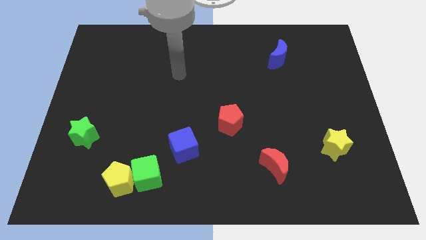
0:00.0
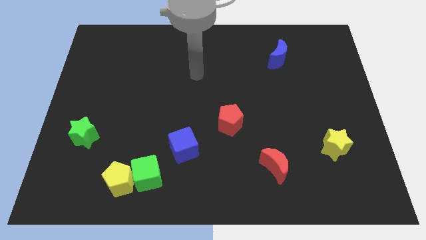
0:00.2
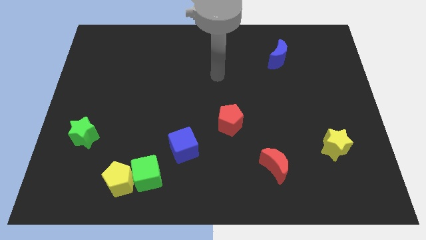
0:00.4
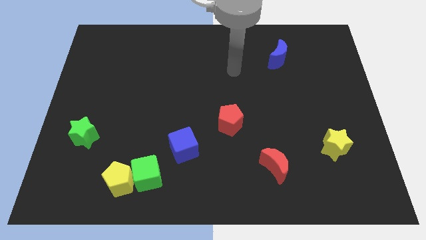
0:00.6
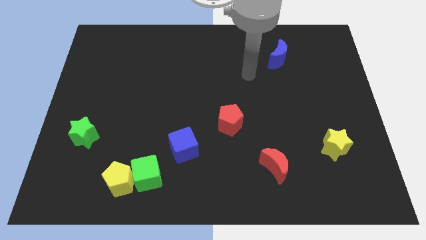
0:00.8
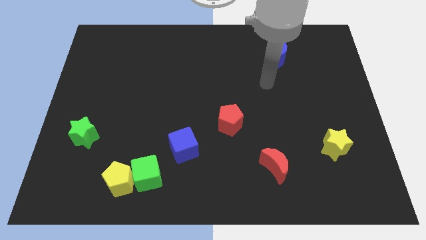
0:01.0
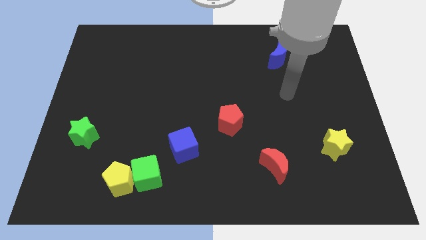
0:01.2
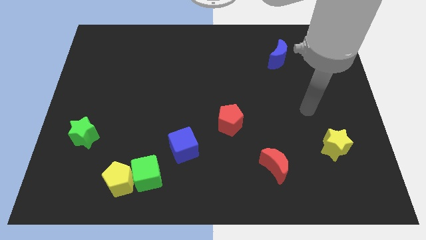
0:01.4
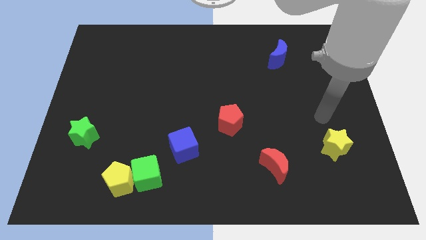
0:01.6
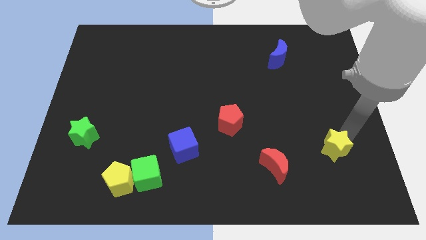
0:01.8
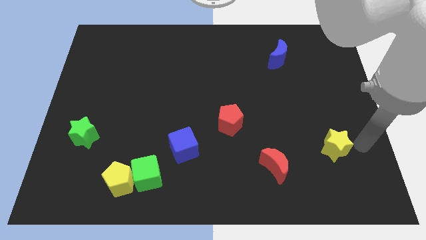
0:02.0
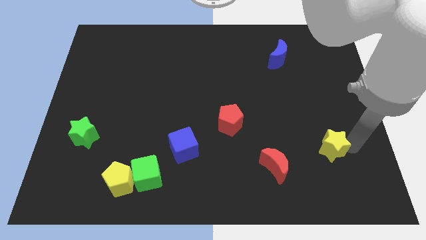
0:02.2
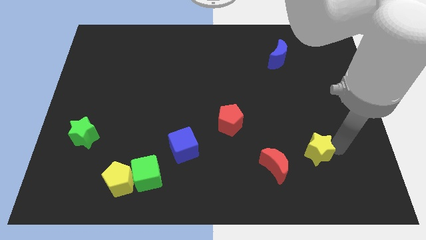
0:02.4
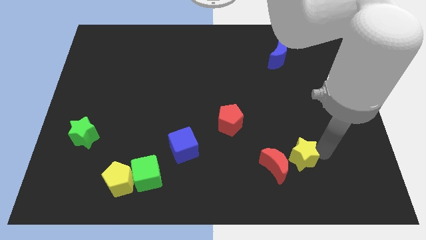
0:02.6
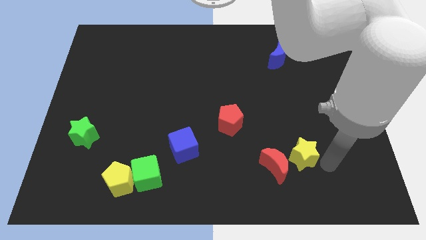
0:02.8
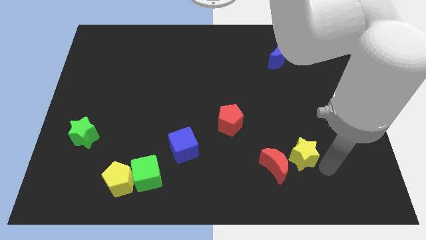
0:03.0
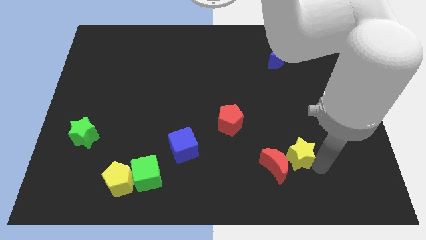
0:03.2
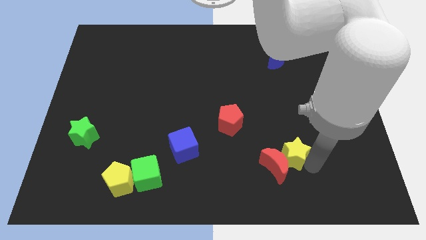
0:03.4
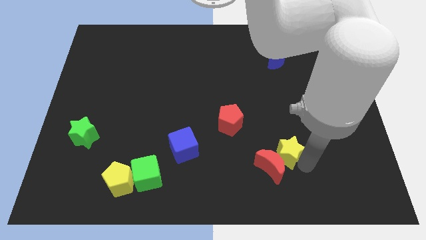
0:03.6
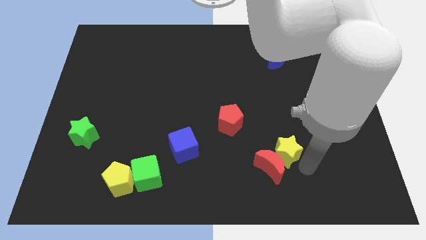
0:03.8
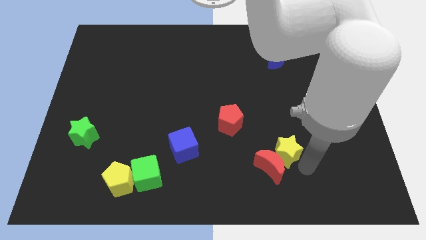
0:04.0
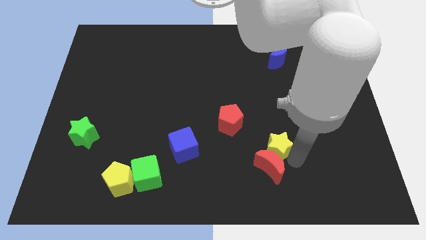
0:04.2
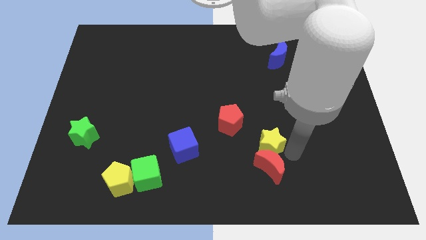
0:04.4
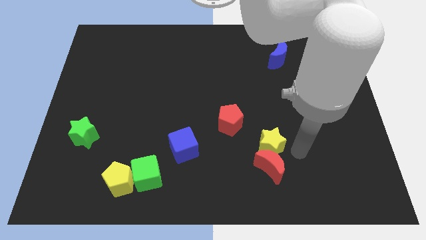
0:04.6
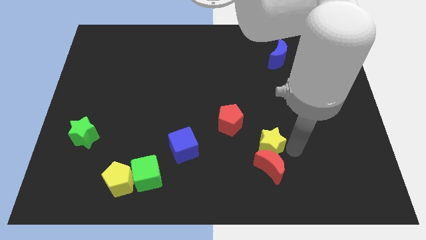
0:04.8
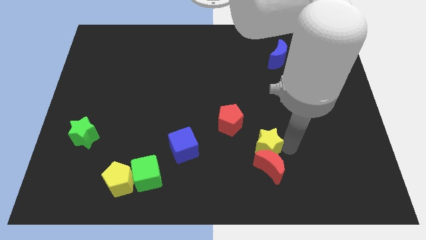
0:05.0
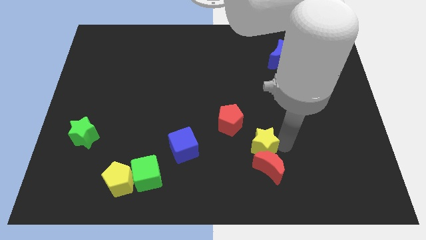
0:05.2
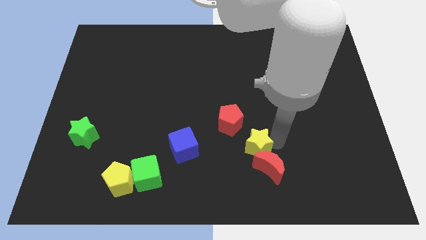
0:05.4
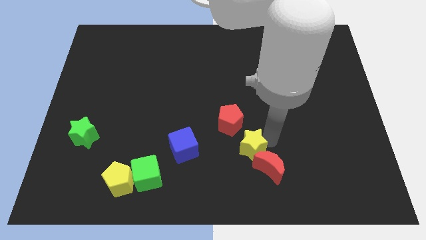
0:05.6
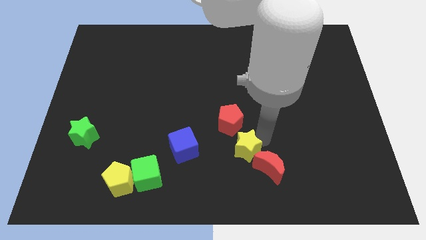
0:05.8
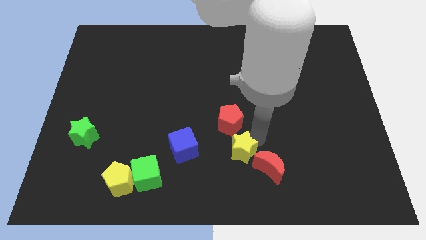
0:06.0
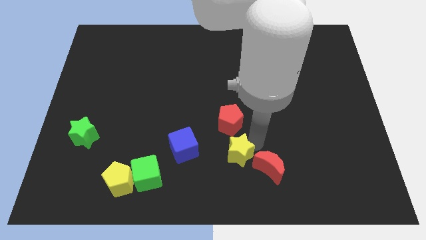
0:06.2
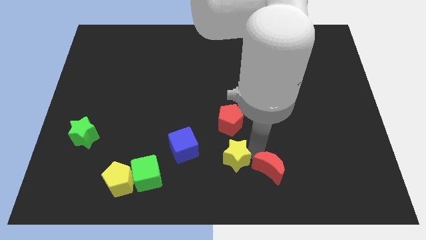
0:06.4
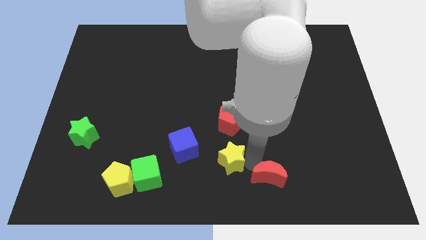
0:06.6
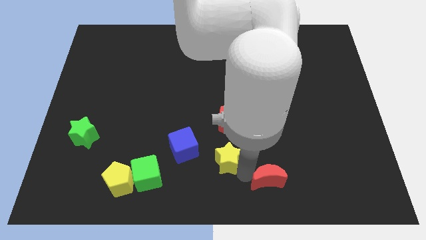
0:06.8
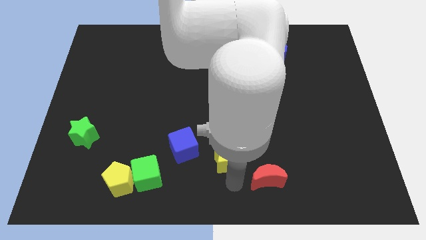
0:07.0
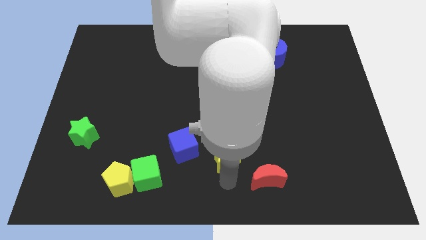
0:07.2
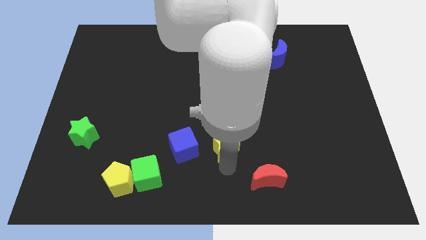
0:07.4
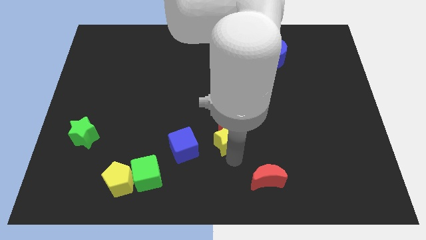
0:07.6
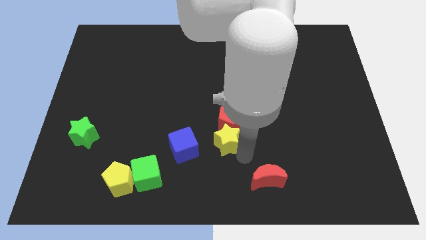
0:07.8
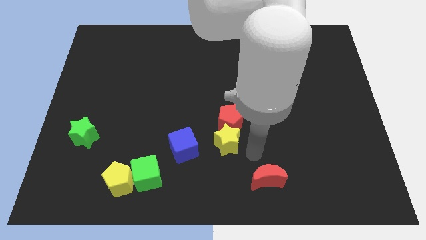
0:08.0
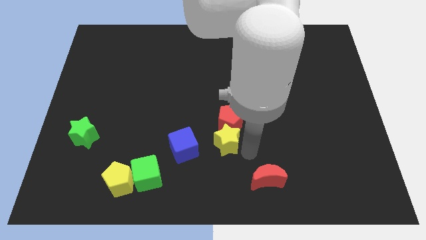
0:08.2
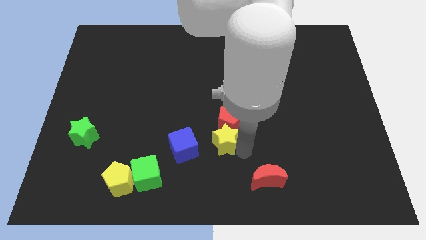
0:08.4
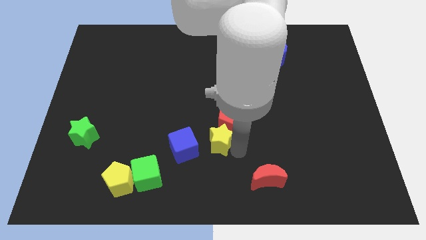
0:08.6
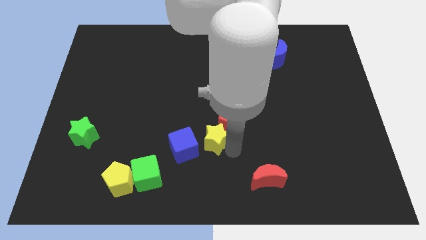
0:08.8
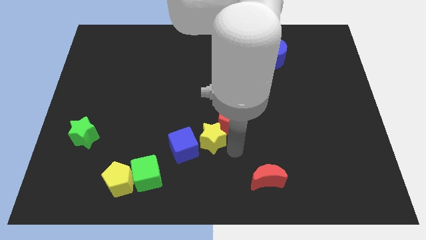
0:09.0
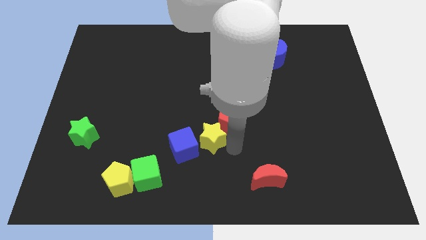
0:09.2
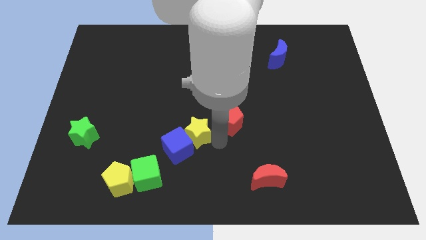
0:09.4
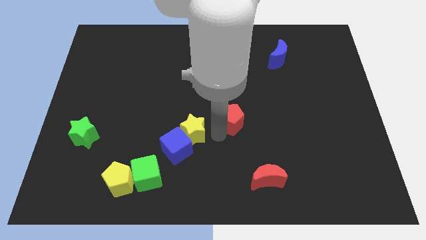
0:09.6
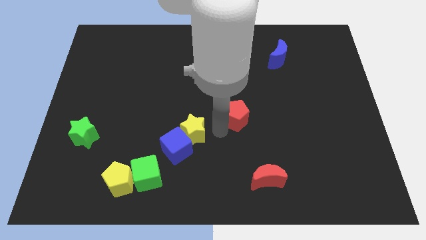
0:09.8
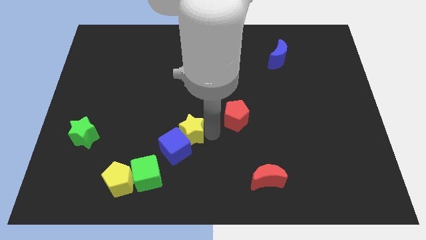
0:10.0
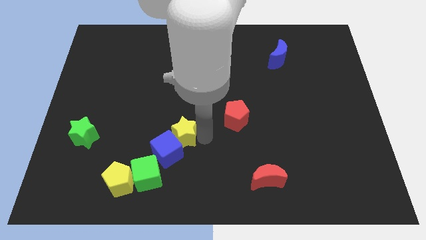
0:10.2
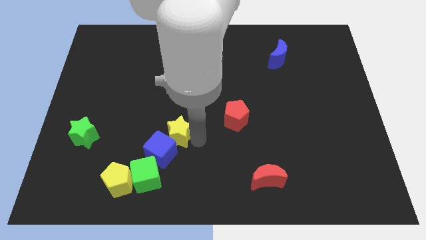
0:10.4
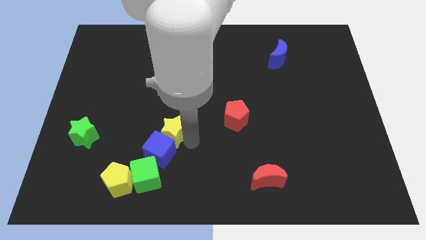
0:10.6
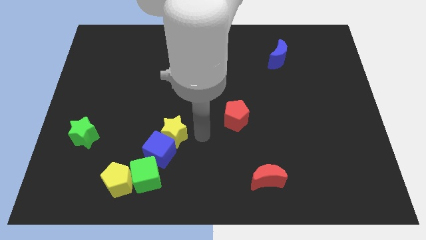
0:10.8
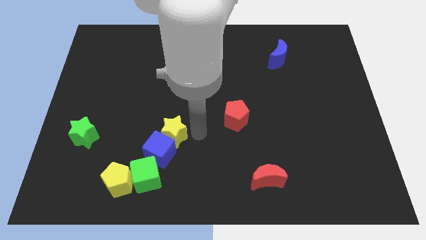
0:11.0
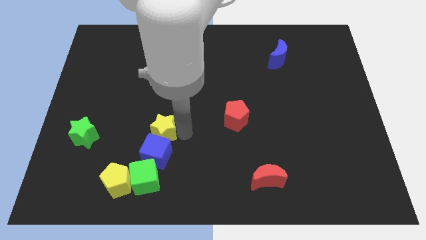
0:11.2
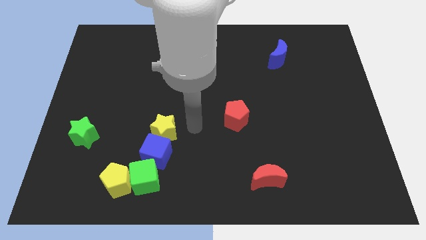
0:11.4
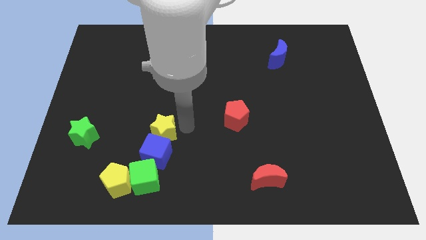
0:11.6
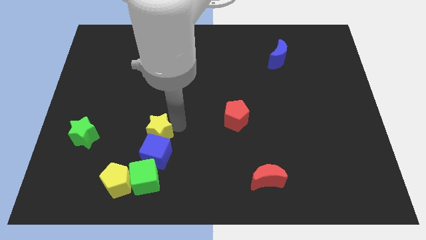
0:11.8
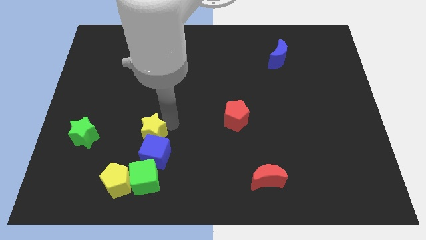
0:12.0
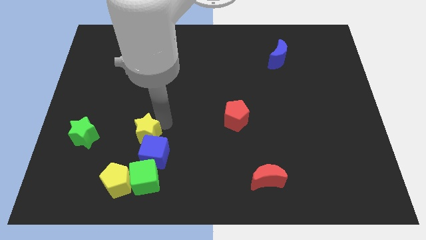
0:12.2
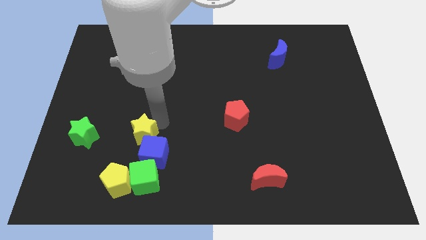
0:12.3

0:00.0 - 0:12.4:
move the yellow star to the top side of the yellow pentagon
